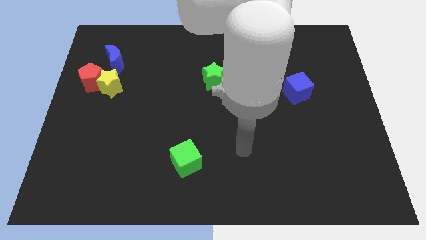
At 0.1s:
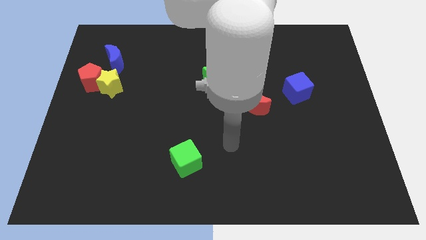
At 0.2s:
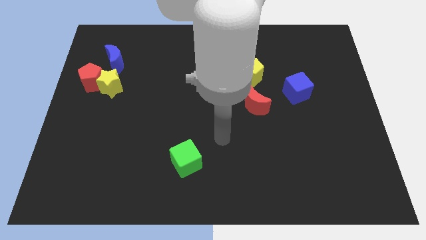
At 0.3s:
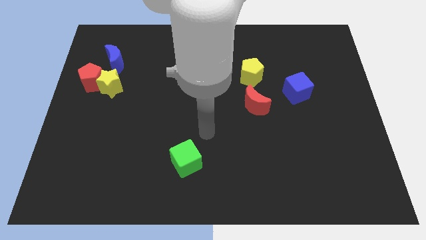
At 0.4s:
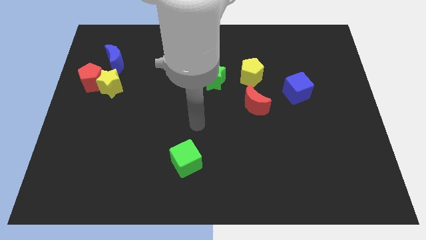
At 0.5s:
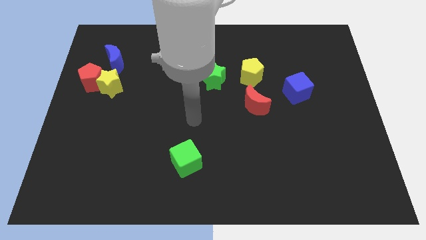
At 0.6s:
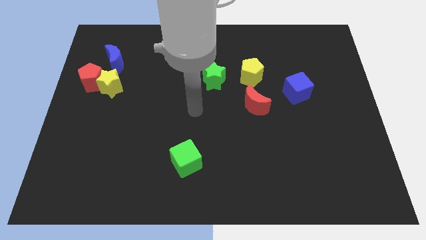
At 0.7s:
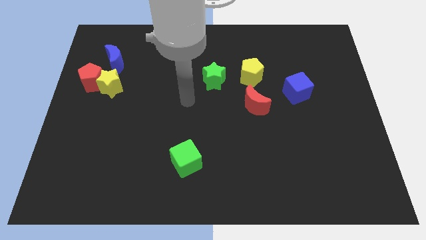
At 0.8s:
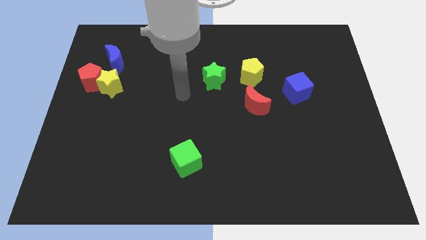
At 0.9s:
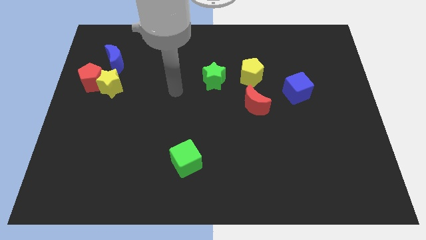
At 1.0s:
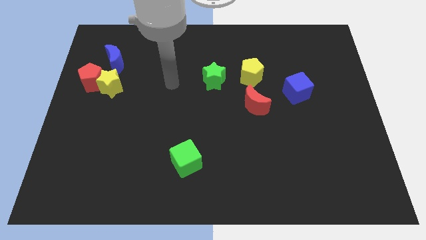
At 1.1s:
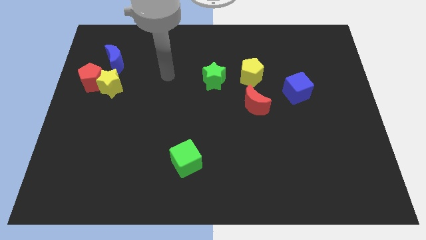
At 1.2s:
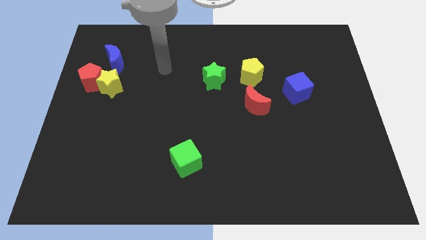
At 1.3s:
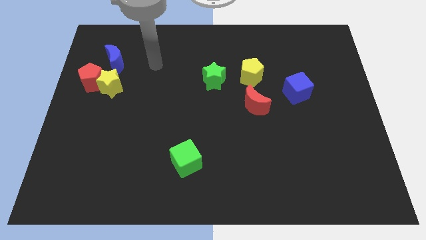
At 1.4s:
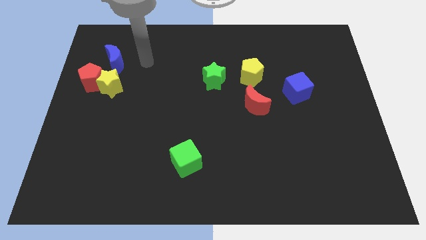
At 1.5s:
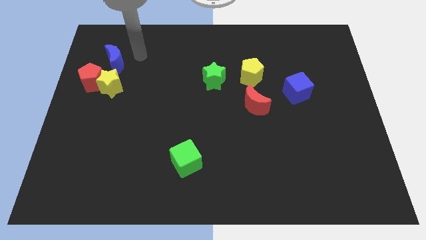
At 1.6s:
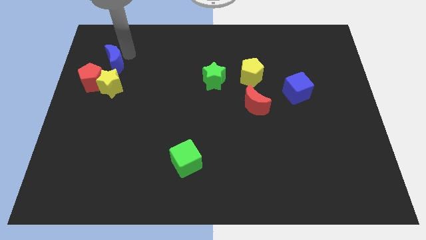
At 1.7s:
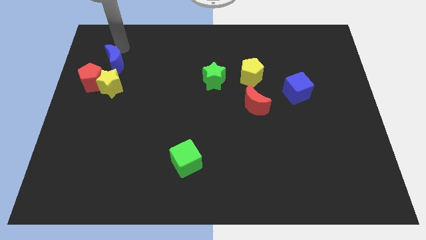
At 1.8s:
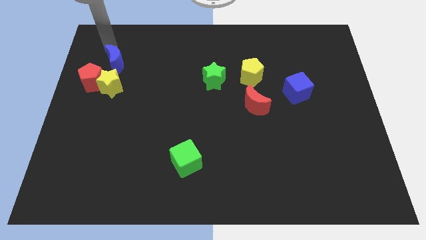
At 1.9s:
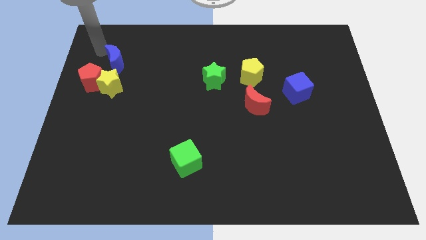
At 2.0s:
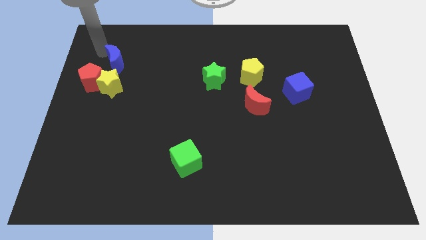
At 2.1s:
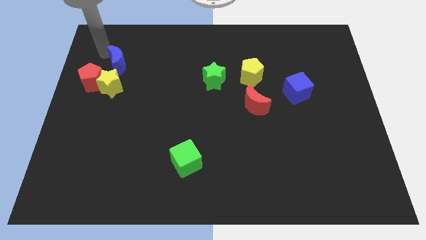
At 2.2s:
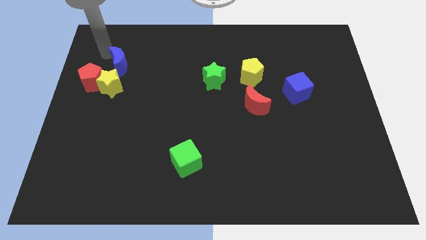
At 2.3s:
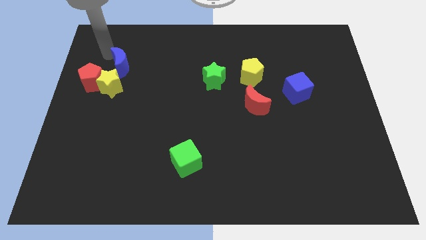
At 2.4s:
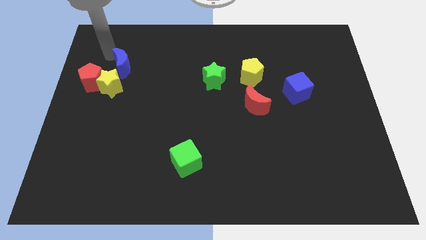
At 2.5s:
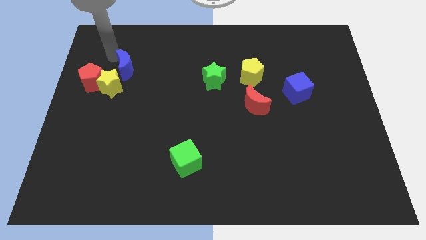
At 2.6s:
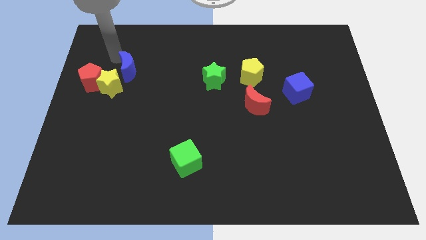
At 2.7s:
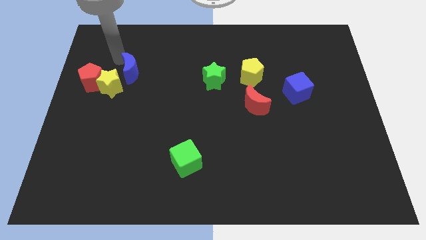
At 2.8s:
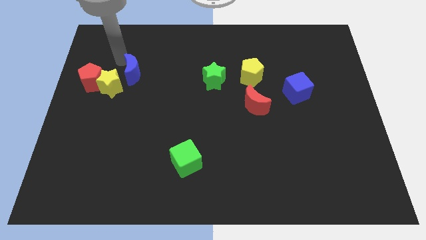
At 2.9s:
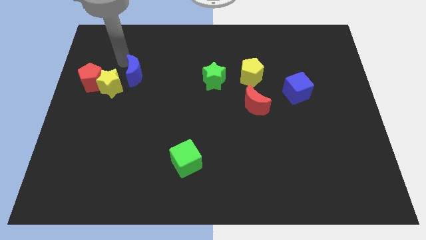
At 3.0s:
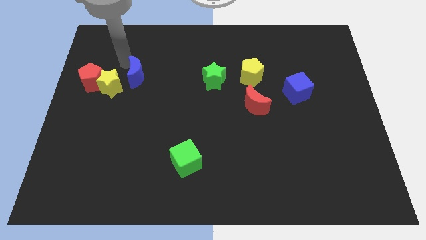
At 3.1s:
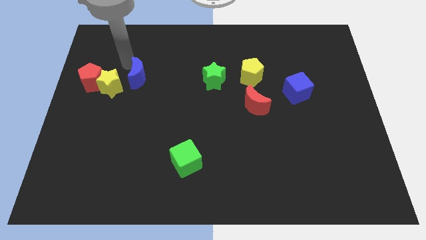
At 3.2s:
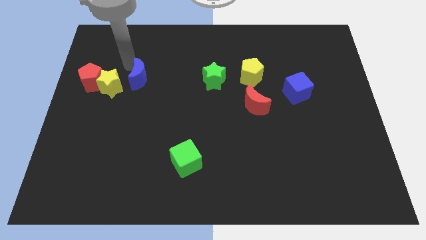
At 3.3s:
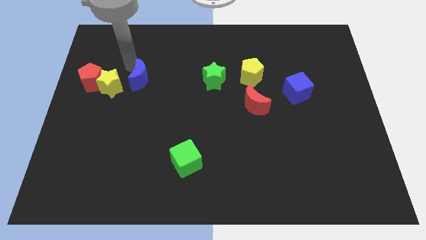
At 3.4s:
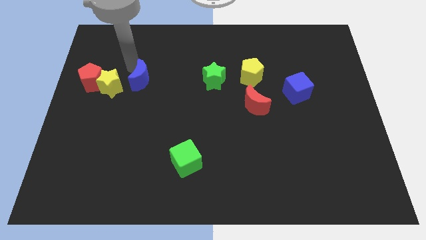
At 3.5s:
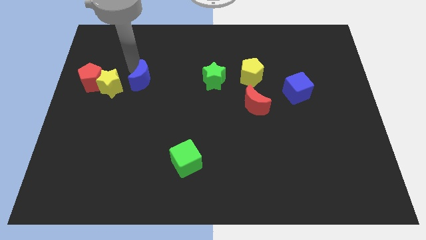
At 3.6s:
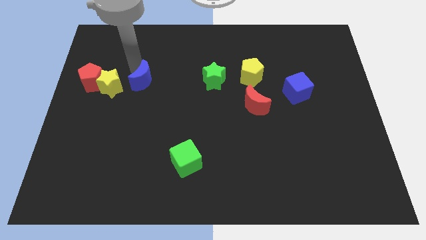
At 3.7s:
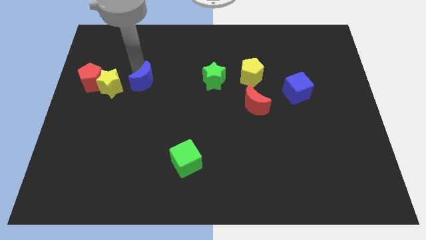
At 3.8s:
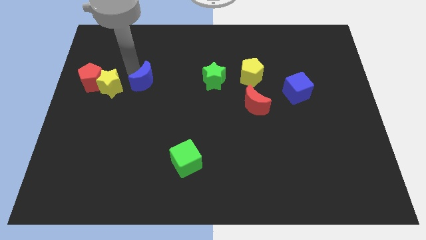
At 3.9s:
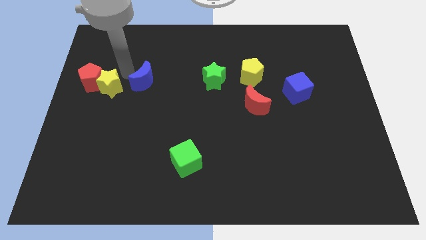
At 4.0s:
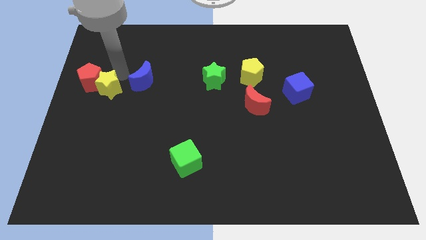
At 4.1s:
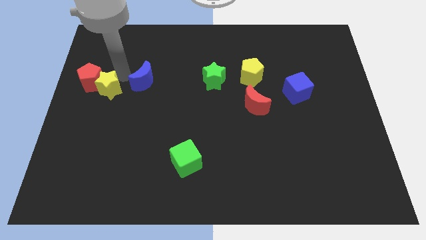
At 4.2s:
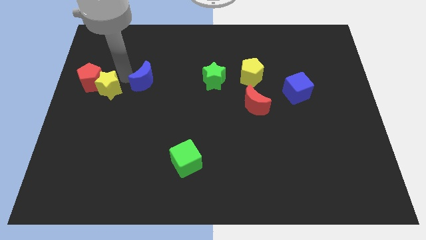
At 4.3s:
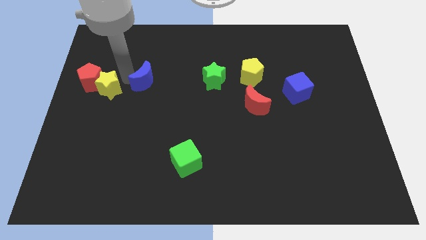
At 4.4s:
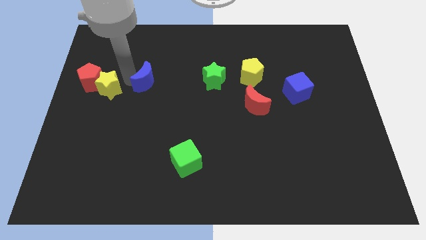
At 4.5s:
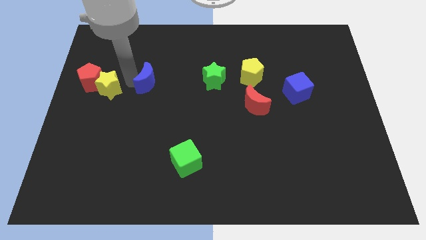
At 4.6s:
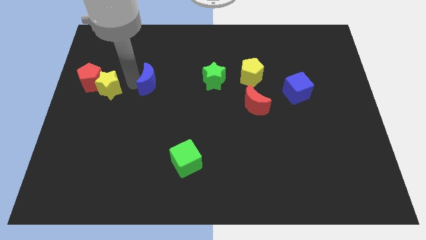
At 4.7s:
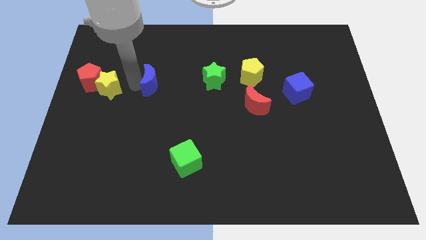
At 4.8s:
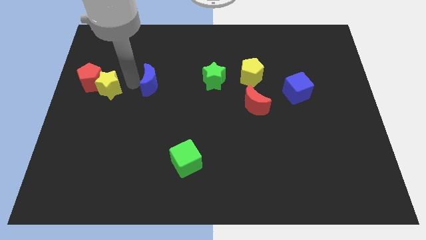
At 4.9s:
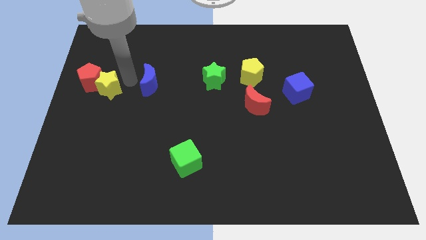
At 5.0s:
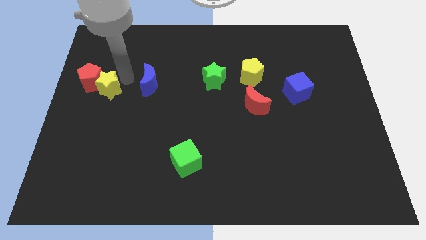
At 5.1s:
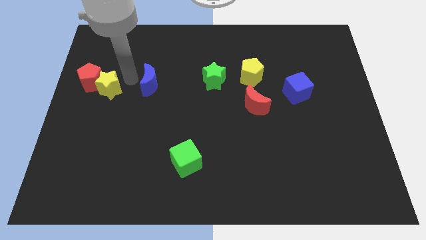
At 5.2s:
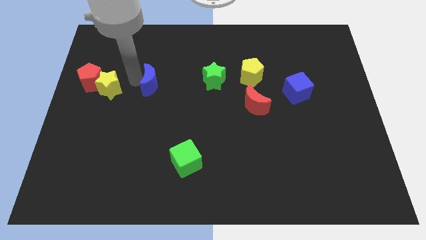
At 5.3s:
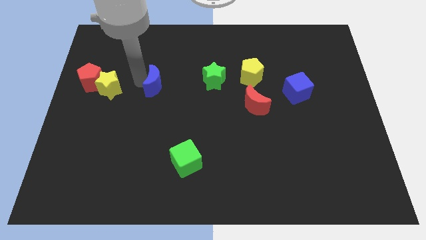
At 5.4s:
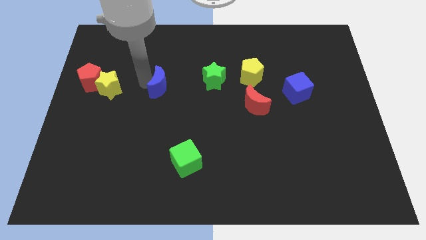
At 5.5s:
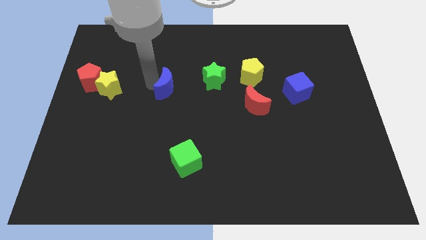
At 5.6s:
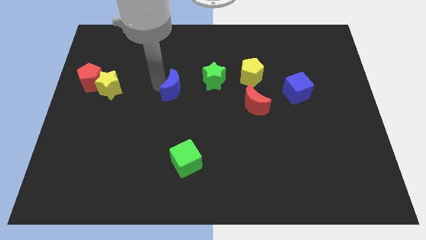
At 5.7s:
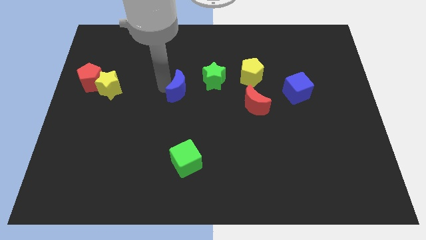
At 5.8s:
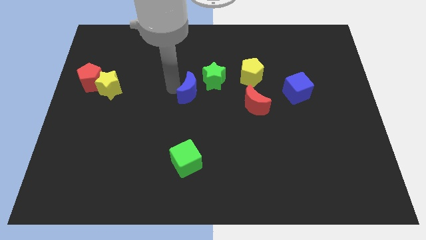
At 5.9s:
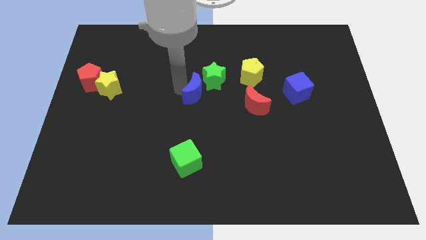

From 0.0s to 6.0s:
push the blue moon to the left side of the red moon
